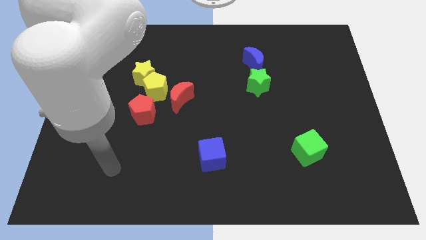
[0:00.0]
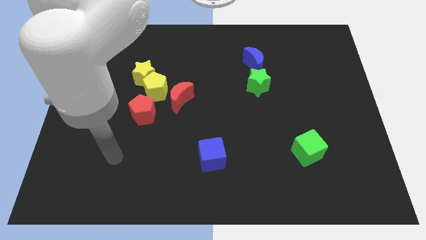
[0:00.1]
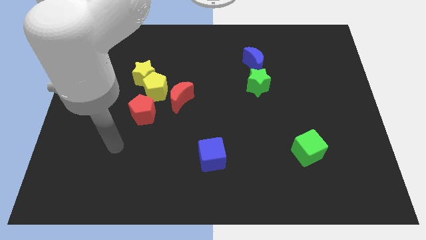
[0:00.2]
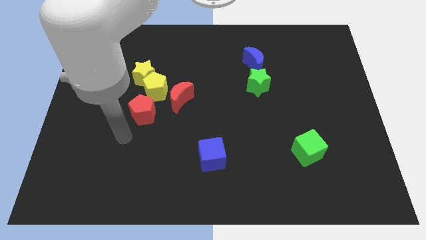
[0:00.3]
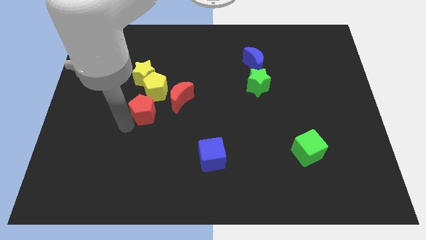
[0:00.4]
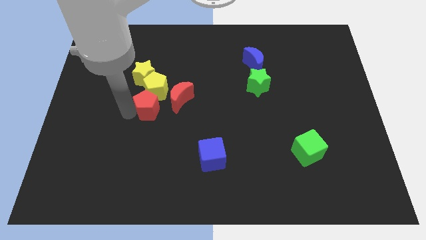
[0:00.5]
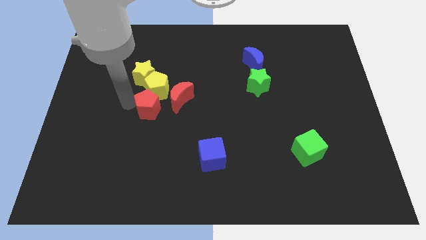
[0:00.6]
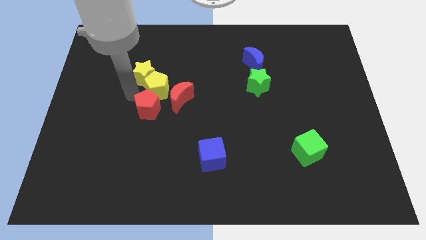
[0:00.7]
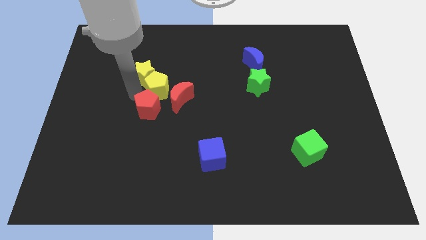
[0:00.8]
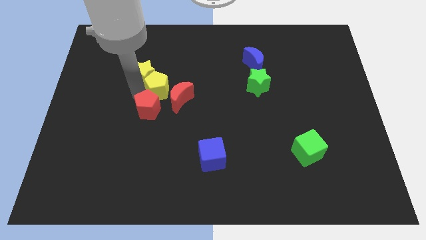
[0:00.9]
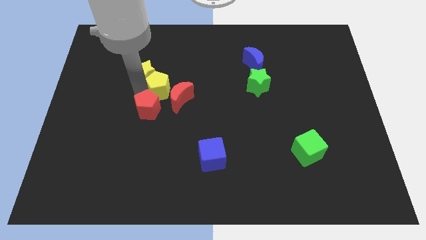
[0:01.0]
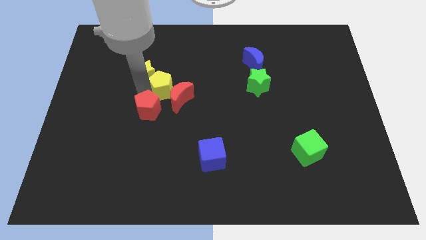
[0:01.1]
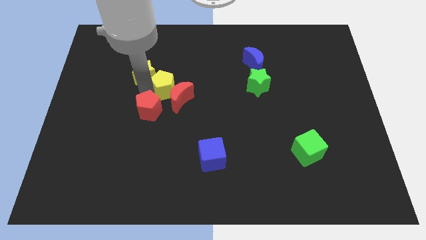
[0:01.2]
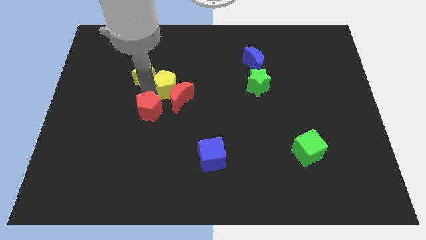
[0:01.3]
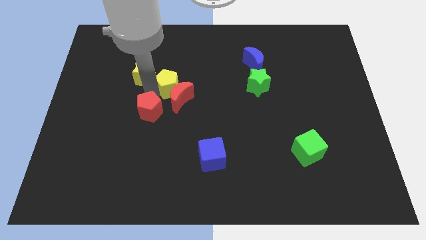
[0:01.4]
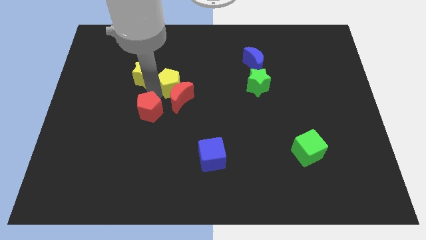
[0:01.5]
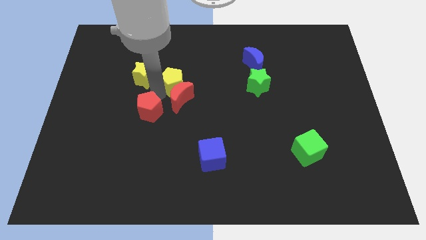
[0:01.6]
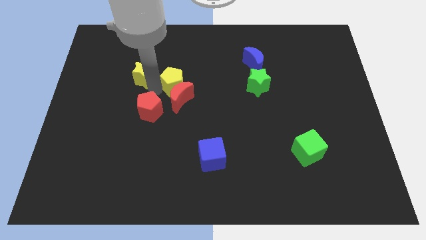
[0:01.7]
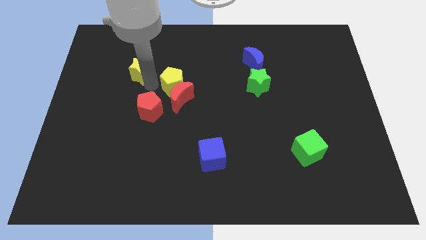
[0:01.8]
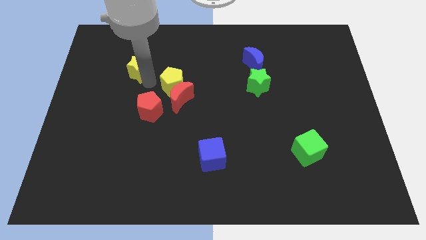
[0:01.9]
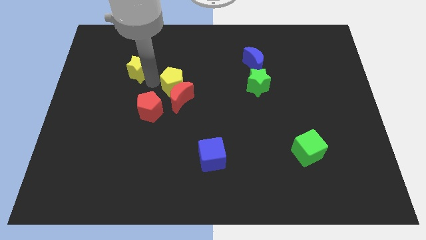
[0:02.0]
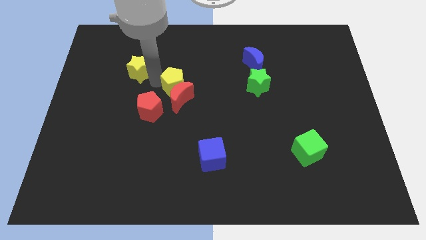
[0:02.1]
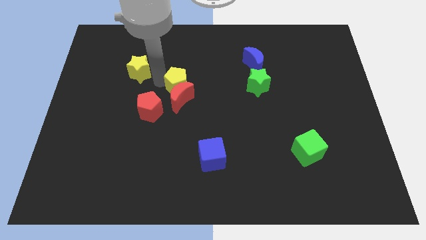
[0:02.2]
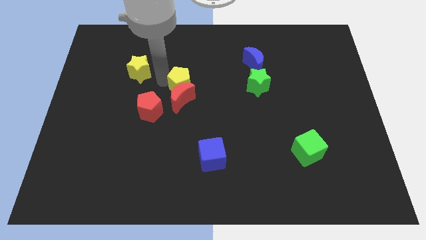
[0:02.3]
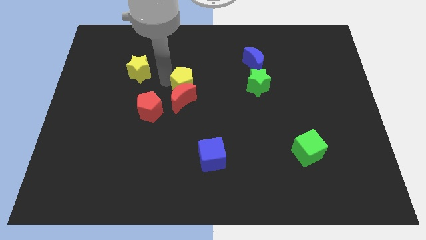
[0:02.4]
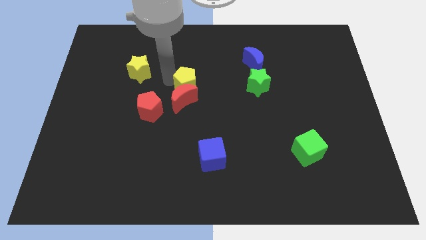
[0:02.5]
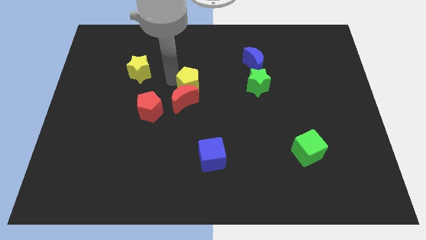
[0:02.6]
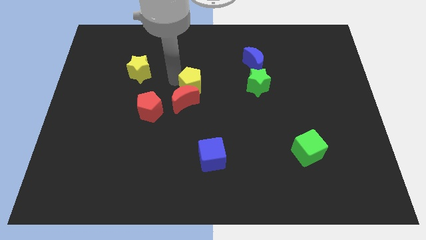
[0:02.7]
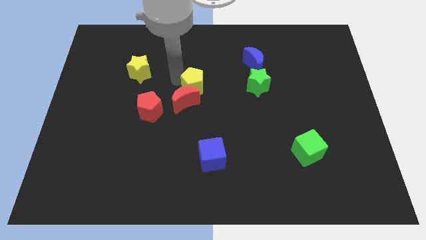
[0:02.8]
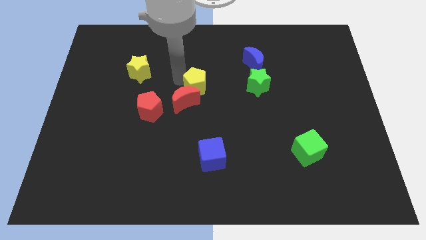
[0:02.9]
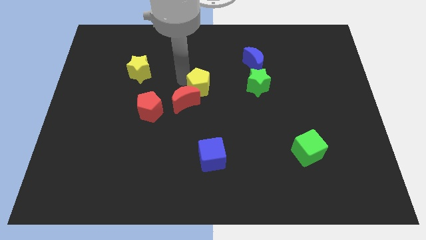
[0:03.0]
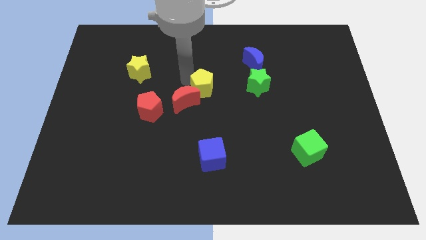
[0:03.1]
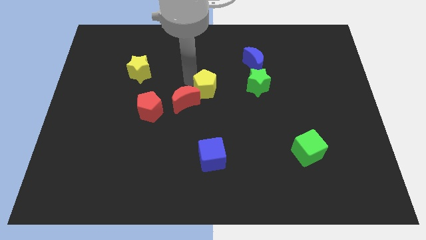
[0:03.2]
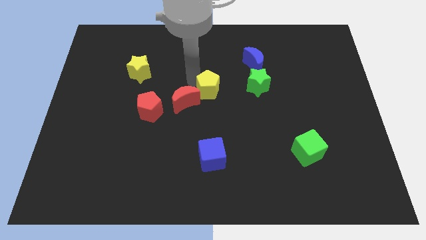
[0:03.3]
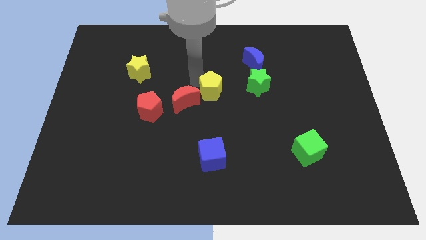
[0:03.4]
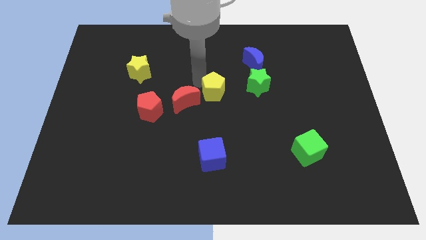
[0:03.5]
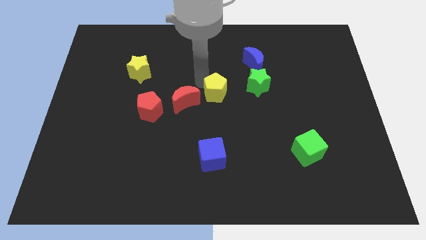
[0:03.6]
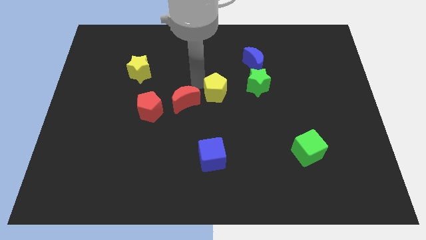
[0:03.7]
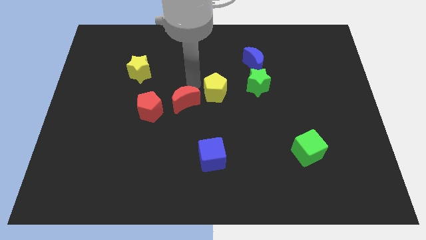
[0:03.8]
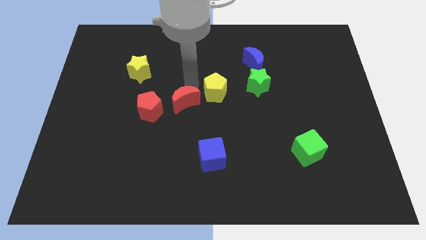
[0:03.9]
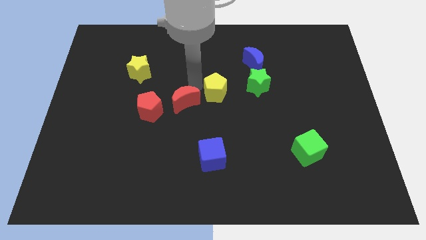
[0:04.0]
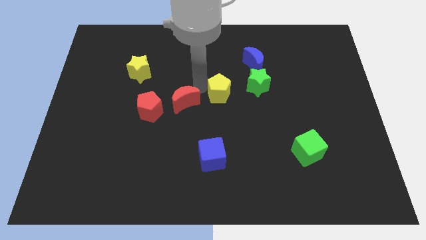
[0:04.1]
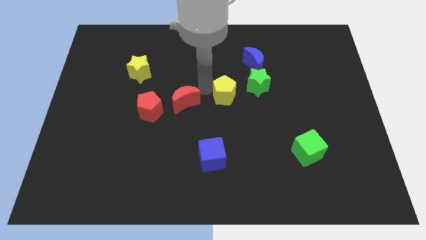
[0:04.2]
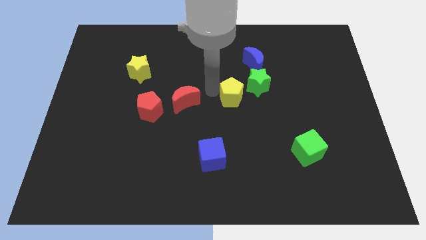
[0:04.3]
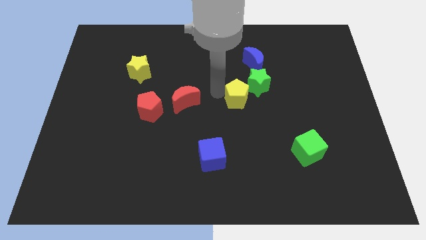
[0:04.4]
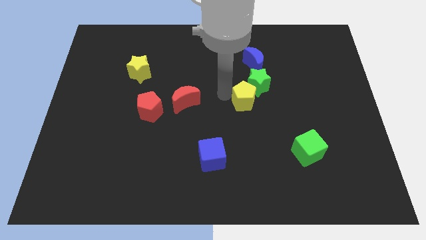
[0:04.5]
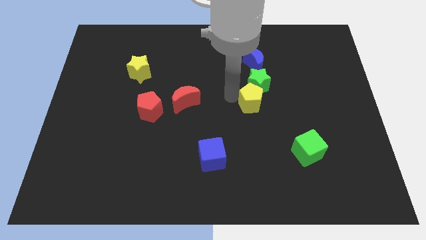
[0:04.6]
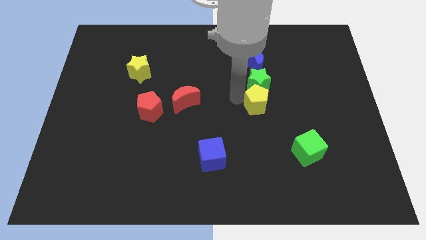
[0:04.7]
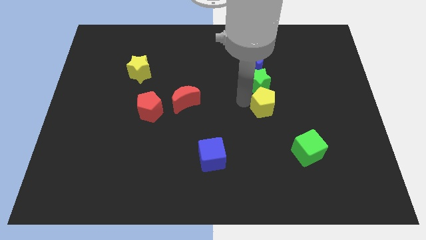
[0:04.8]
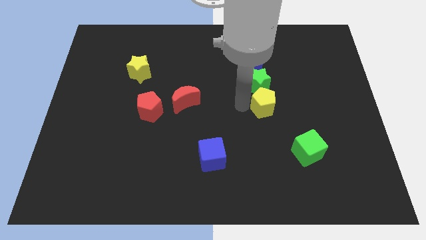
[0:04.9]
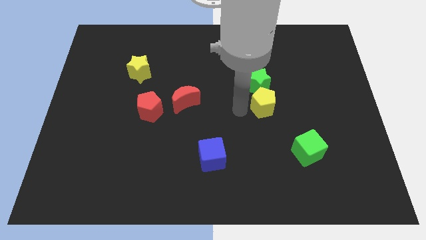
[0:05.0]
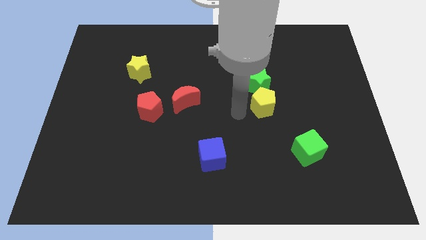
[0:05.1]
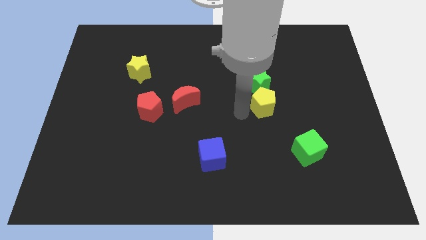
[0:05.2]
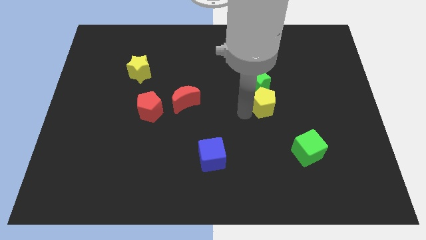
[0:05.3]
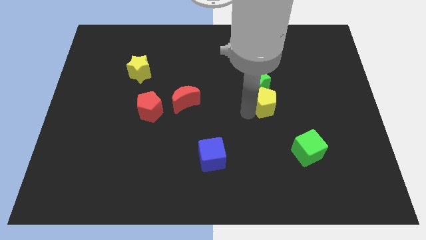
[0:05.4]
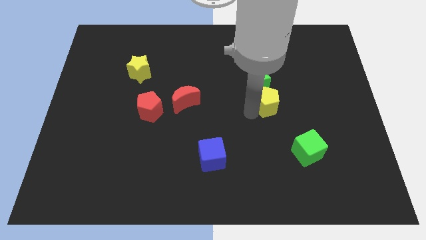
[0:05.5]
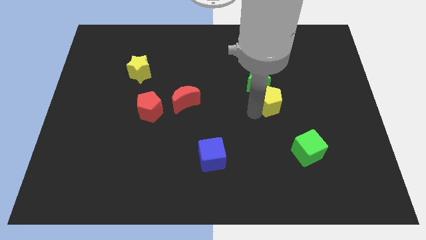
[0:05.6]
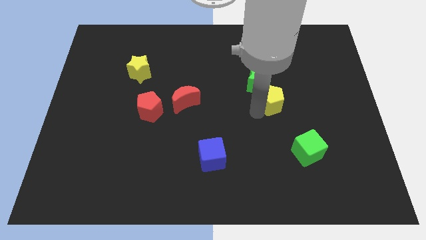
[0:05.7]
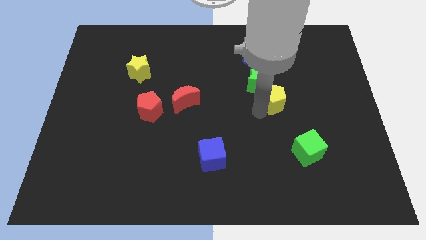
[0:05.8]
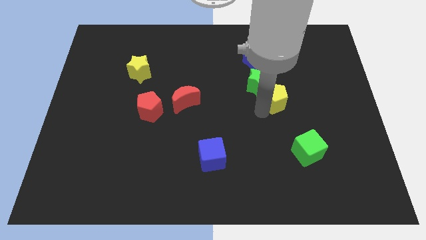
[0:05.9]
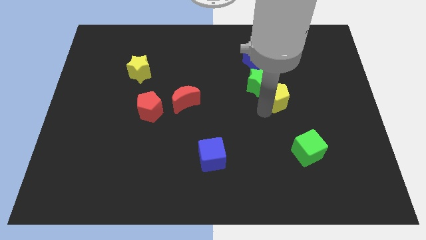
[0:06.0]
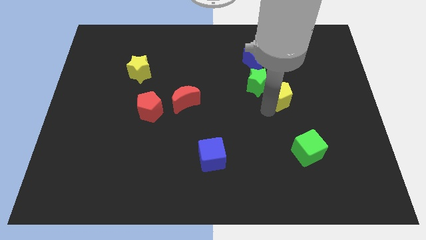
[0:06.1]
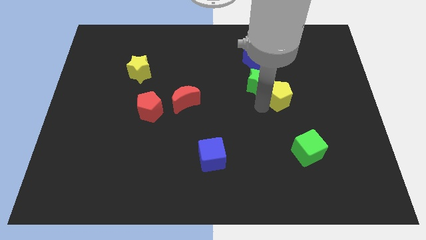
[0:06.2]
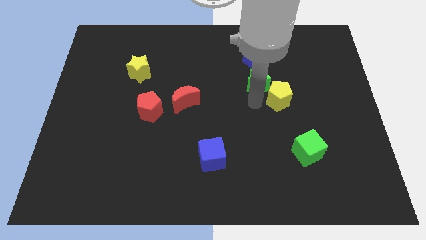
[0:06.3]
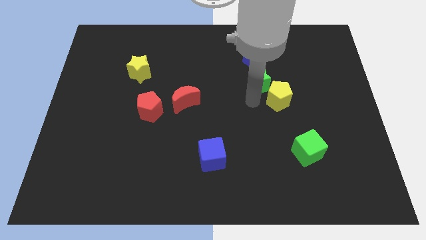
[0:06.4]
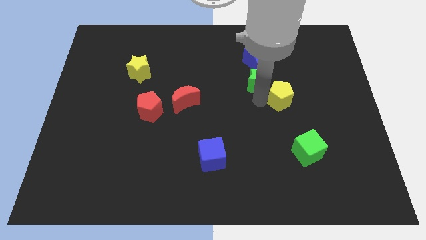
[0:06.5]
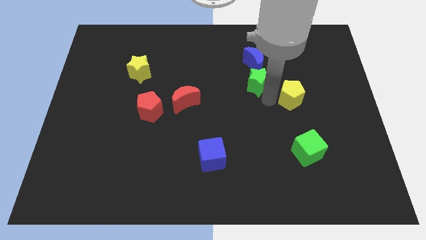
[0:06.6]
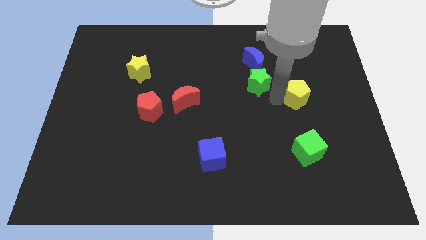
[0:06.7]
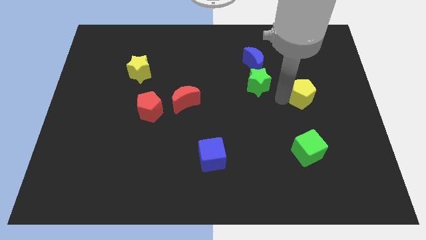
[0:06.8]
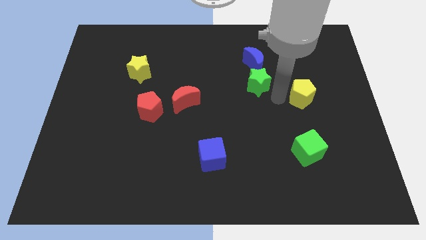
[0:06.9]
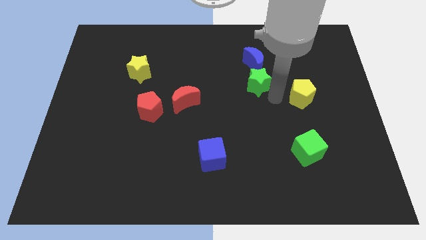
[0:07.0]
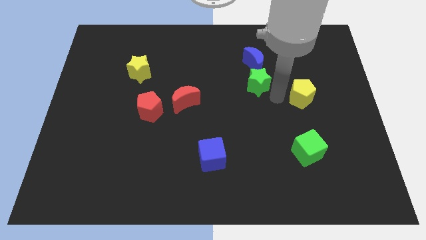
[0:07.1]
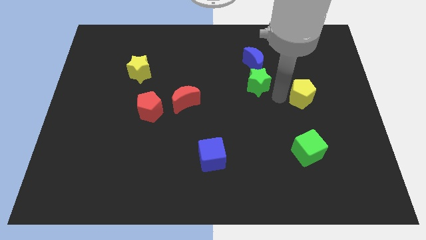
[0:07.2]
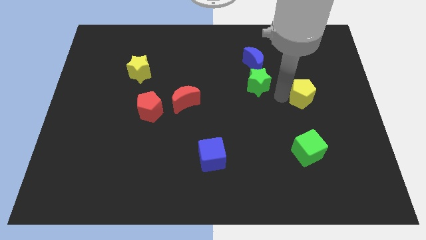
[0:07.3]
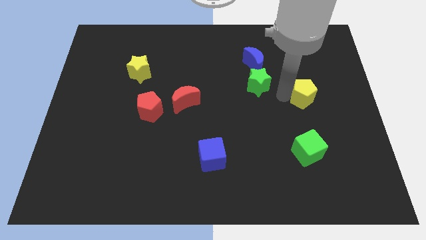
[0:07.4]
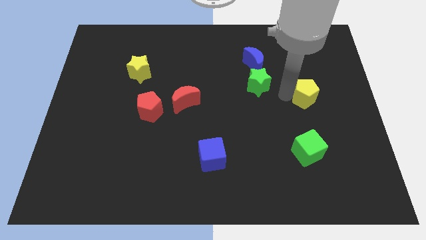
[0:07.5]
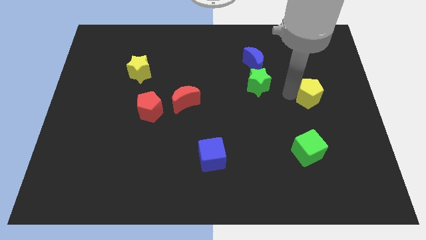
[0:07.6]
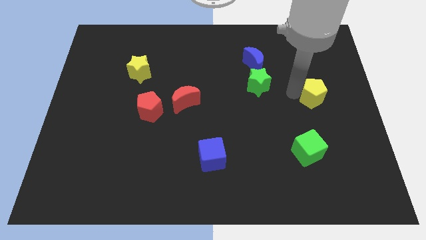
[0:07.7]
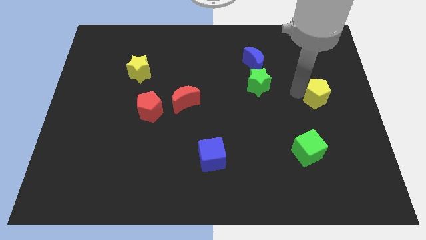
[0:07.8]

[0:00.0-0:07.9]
put the yellow pentagon to the center right
